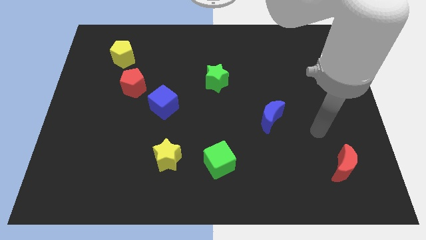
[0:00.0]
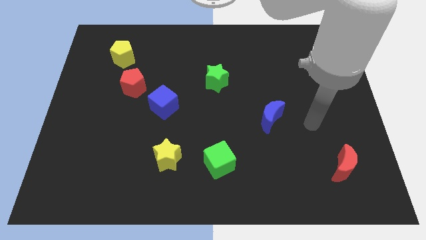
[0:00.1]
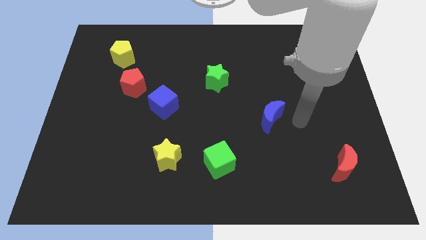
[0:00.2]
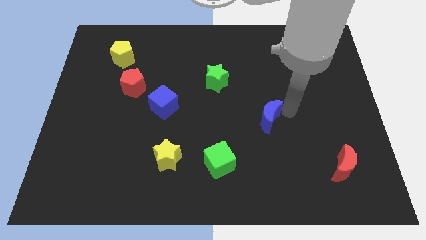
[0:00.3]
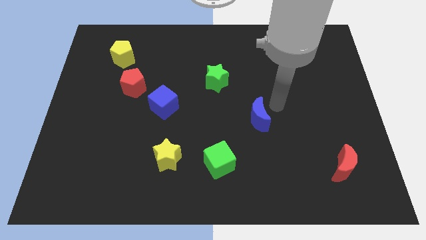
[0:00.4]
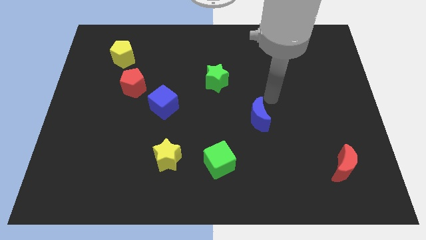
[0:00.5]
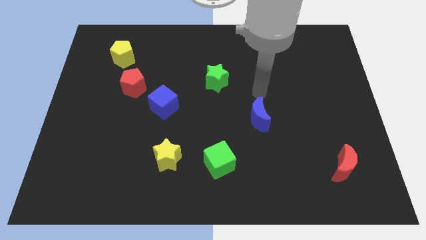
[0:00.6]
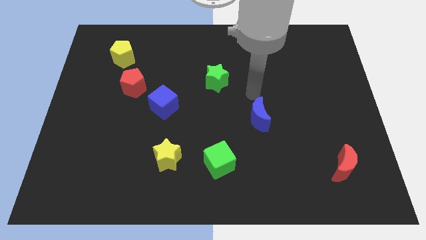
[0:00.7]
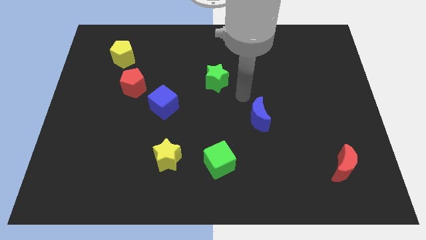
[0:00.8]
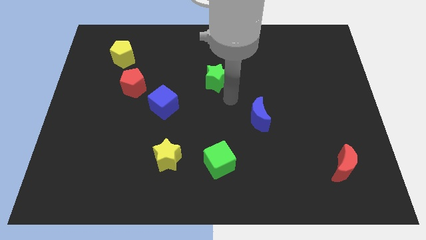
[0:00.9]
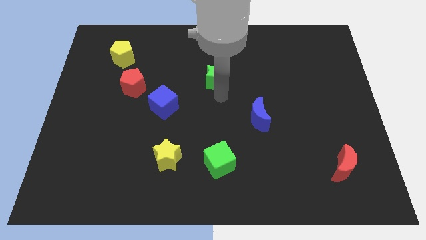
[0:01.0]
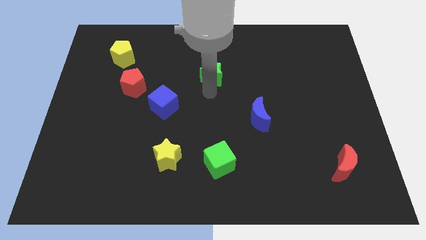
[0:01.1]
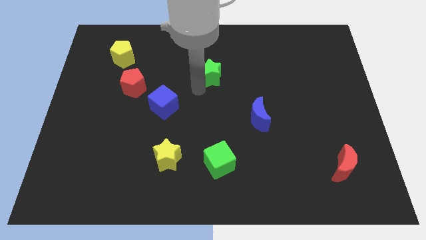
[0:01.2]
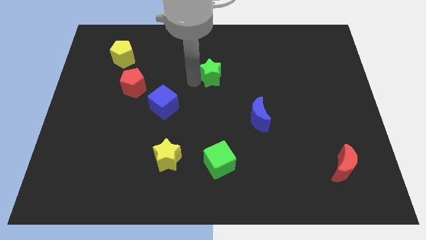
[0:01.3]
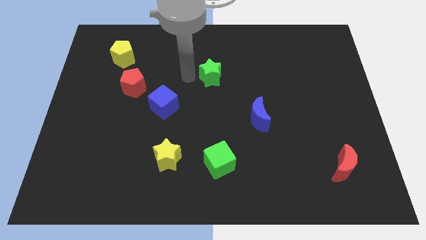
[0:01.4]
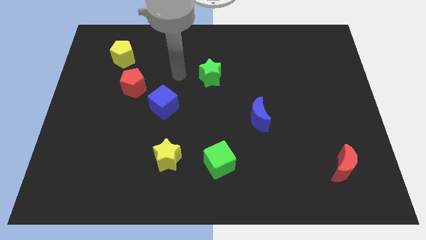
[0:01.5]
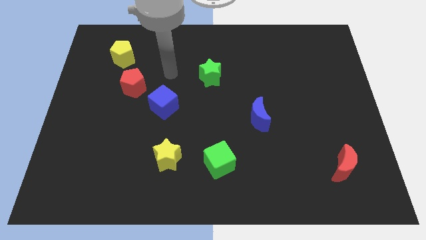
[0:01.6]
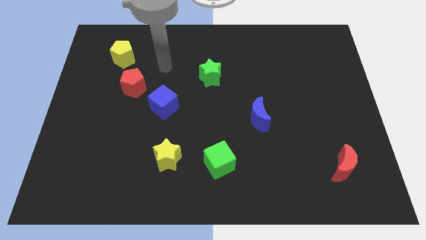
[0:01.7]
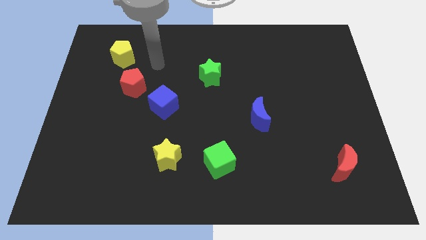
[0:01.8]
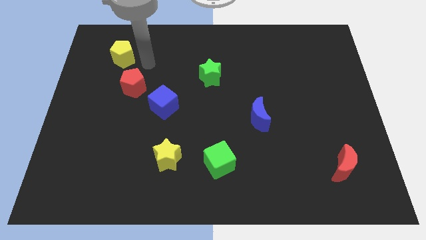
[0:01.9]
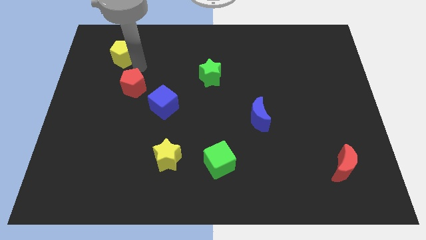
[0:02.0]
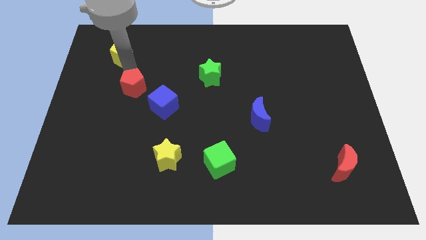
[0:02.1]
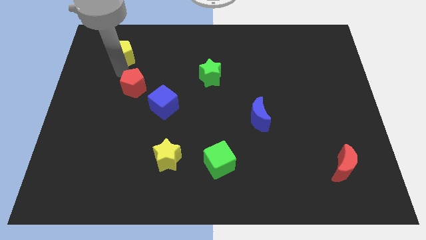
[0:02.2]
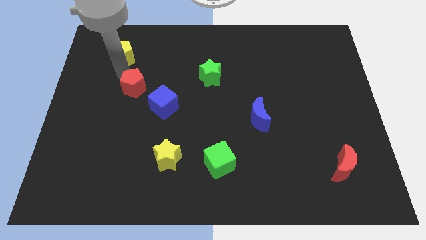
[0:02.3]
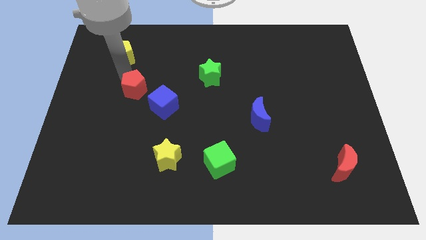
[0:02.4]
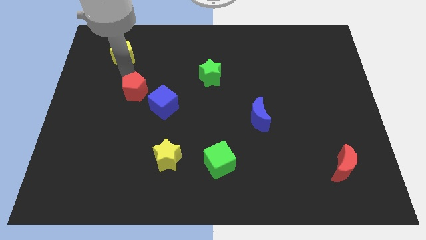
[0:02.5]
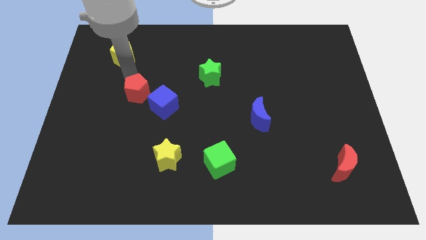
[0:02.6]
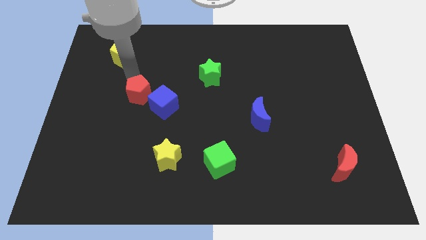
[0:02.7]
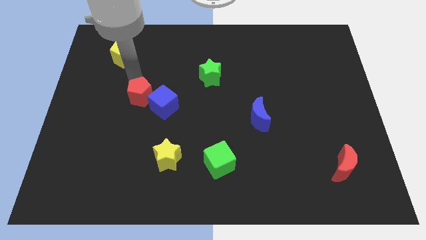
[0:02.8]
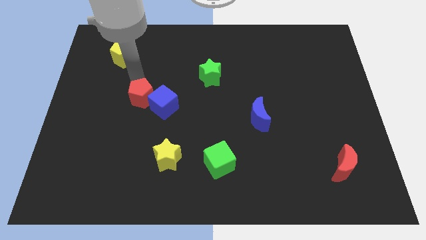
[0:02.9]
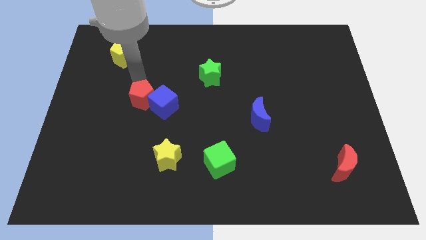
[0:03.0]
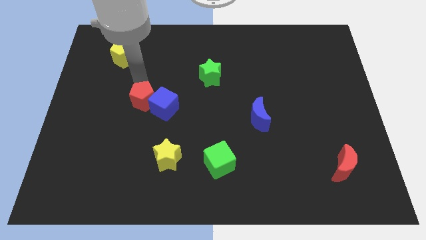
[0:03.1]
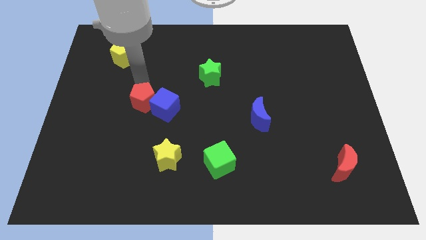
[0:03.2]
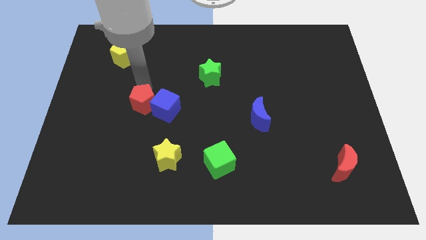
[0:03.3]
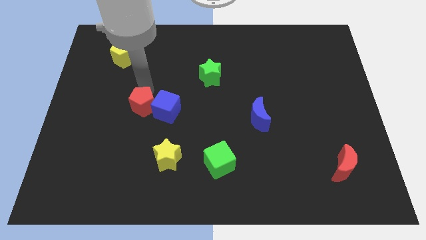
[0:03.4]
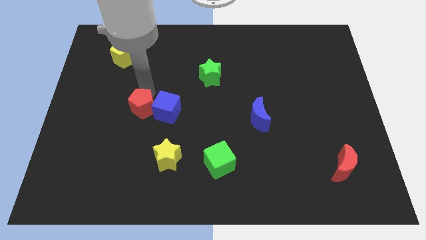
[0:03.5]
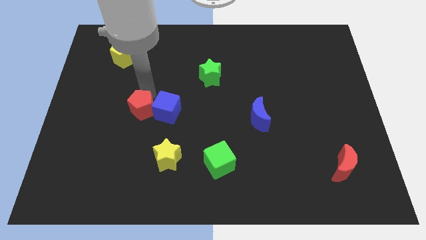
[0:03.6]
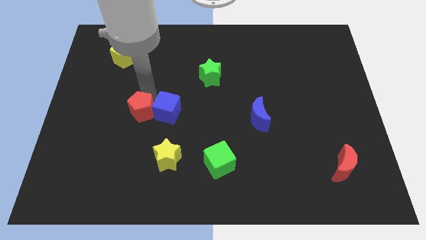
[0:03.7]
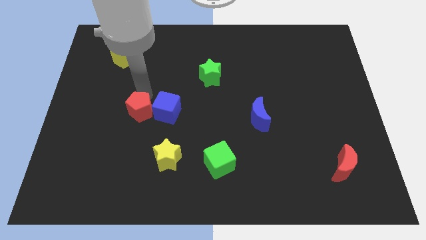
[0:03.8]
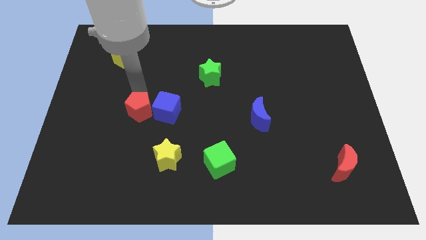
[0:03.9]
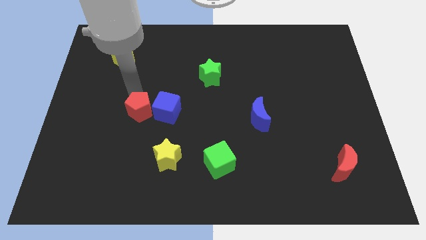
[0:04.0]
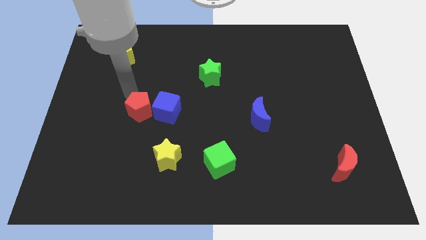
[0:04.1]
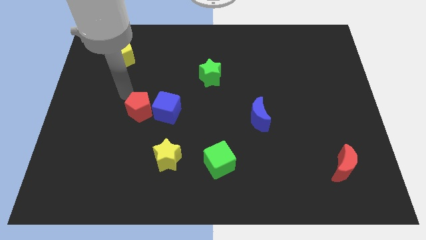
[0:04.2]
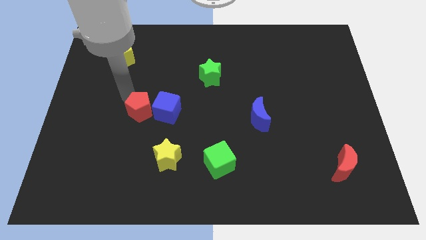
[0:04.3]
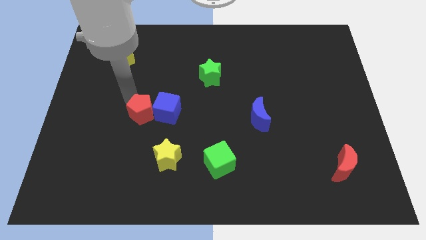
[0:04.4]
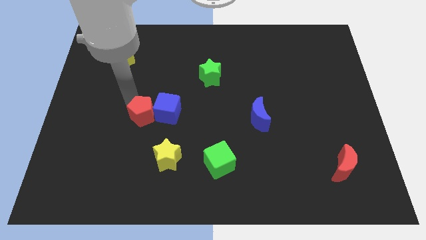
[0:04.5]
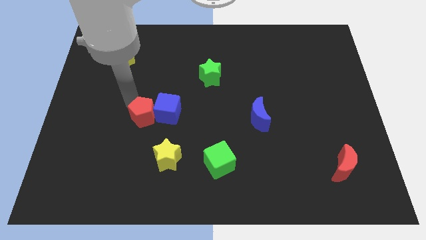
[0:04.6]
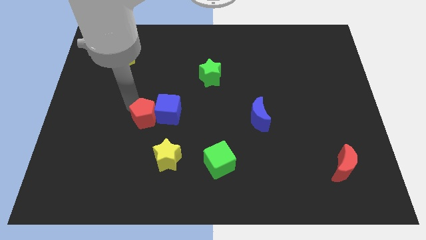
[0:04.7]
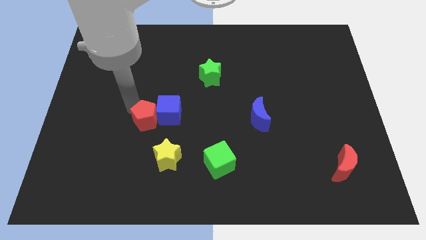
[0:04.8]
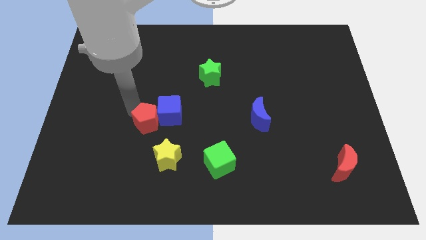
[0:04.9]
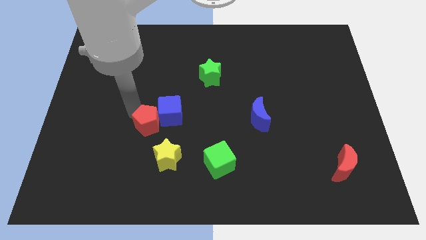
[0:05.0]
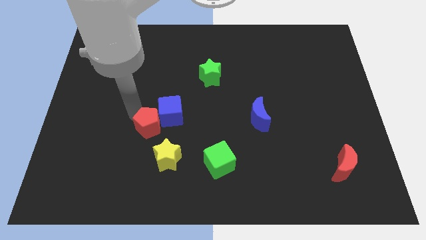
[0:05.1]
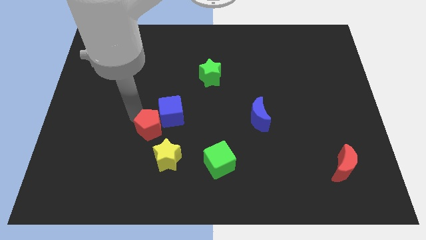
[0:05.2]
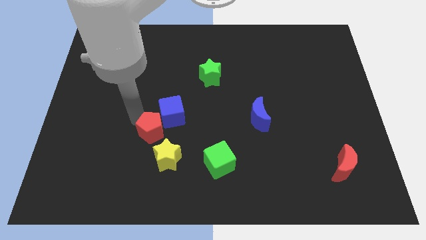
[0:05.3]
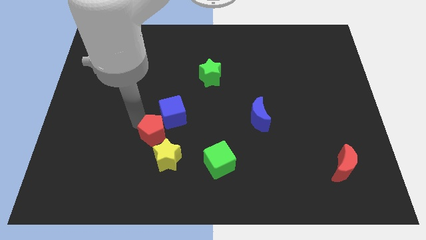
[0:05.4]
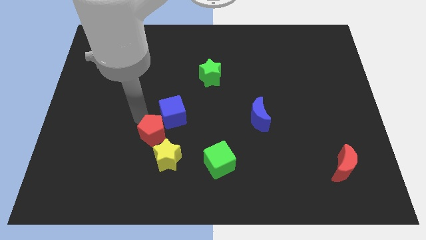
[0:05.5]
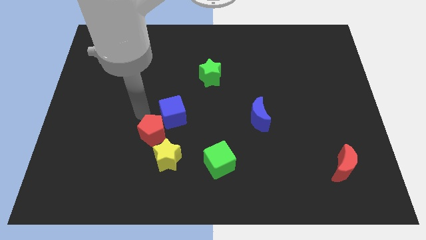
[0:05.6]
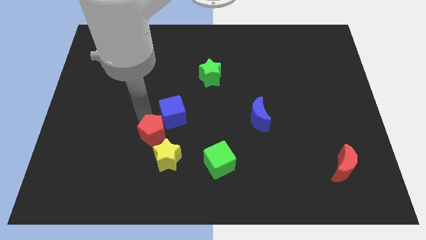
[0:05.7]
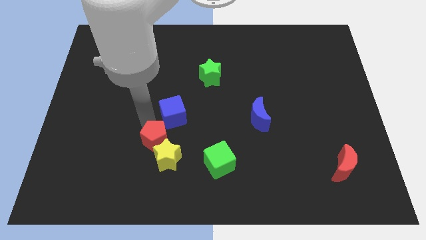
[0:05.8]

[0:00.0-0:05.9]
slide the red pentagon next to the yellow star

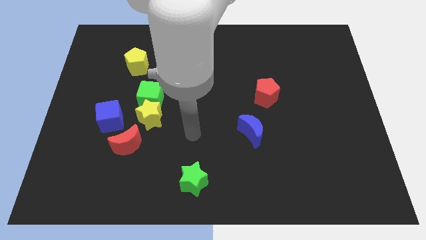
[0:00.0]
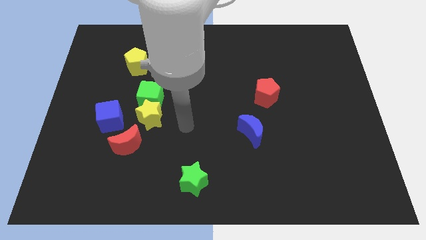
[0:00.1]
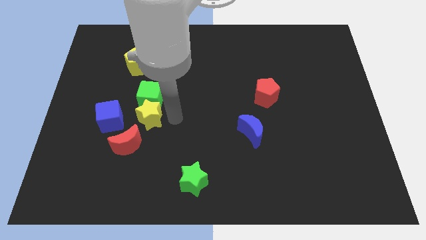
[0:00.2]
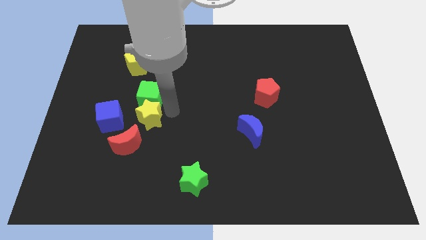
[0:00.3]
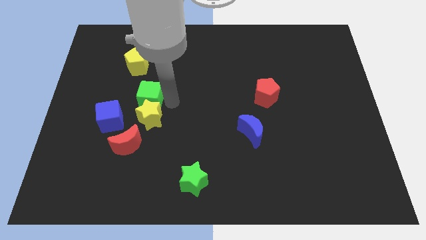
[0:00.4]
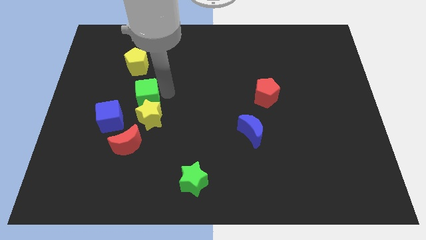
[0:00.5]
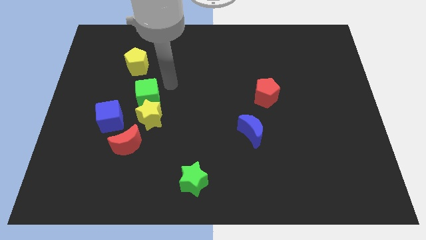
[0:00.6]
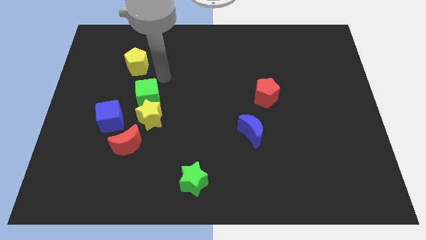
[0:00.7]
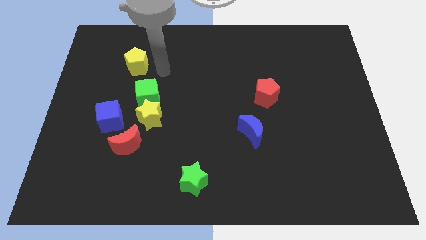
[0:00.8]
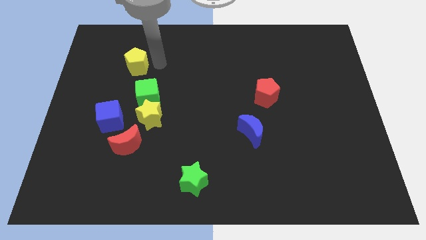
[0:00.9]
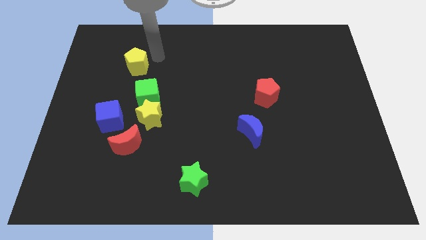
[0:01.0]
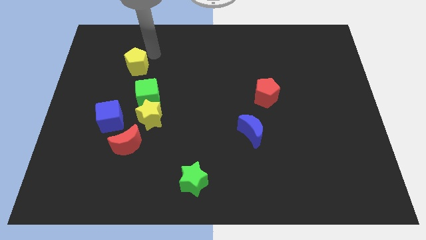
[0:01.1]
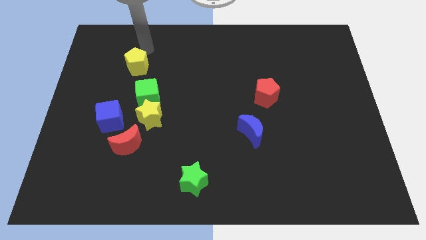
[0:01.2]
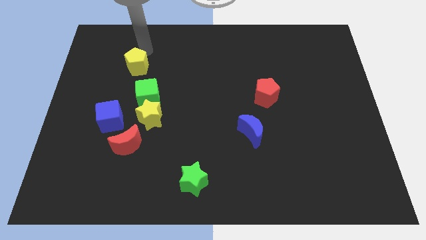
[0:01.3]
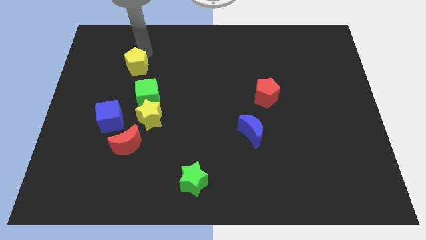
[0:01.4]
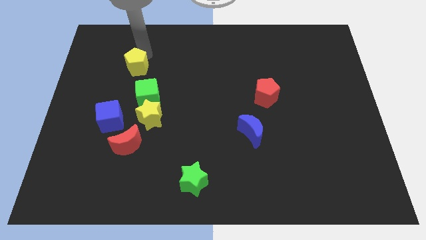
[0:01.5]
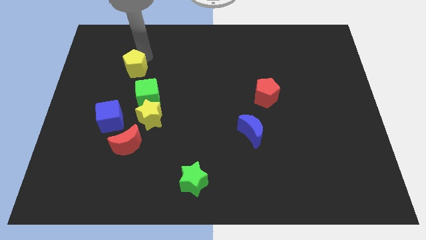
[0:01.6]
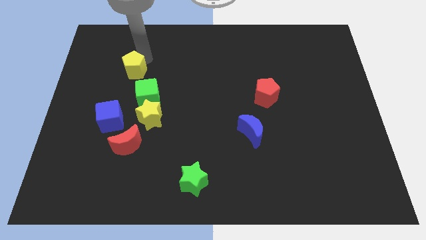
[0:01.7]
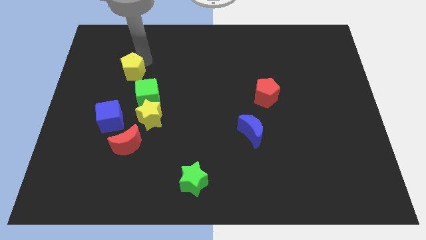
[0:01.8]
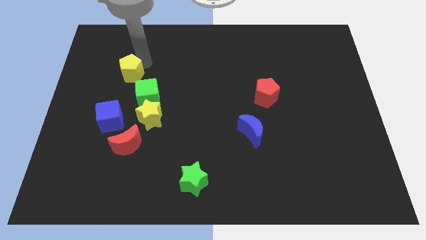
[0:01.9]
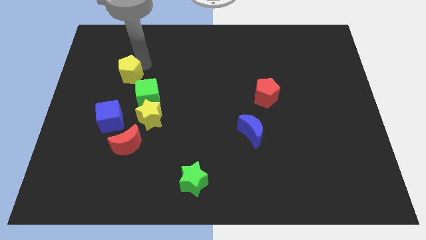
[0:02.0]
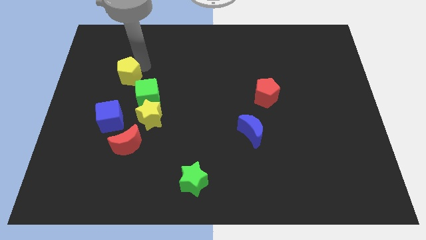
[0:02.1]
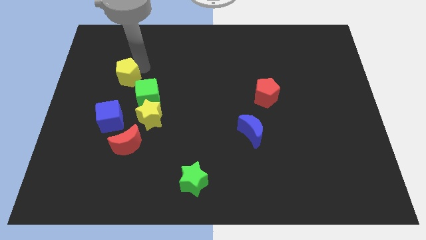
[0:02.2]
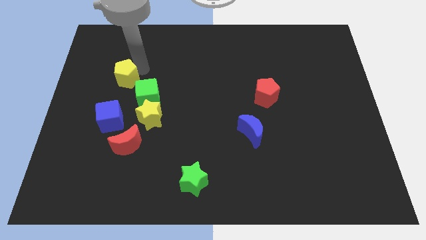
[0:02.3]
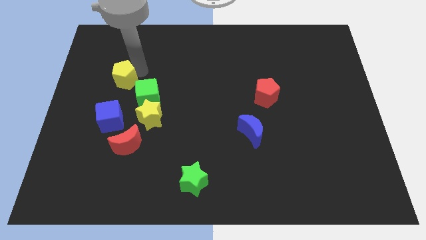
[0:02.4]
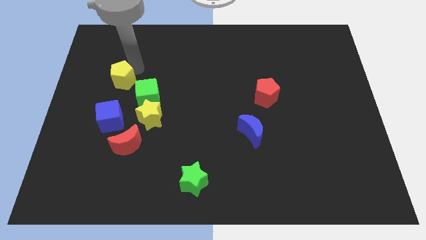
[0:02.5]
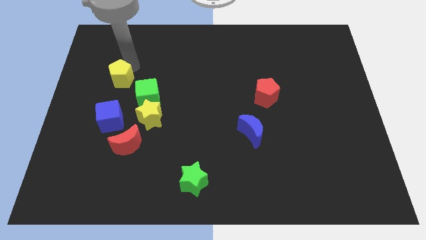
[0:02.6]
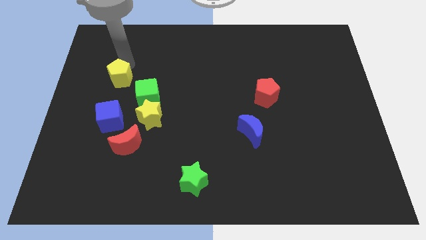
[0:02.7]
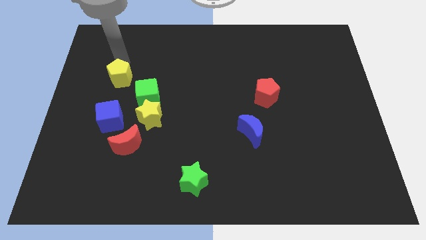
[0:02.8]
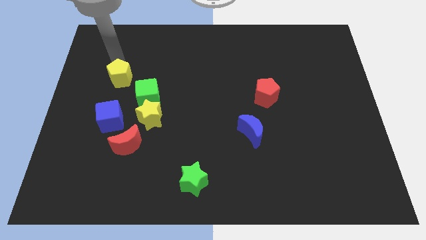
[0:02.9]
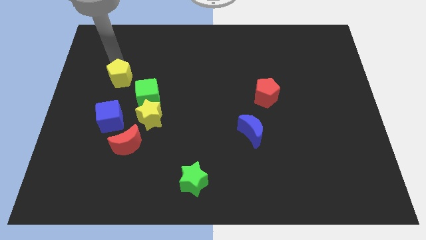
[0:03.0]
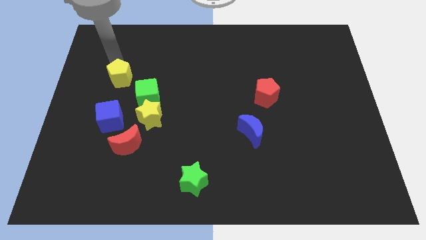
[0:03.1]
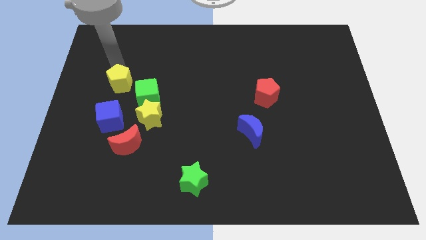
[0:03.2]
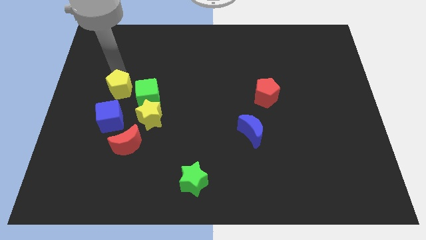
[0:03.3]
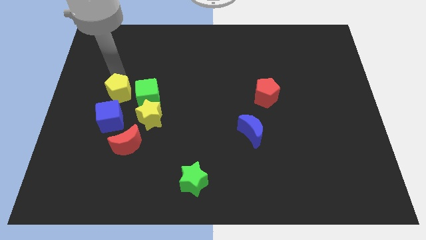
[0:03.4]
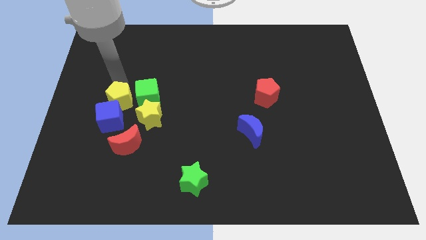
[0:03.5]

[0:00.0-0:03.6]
slide the yellow pentagon to the blue cube
